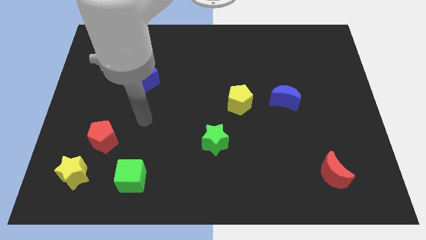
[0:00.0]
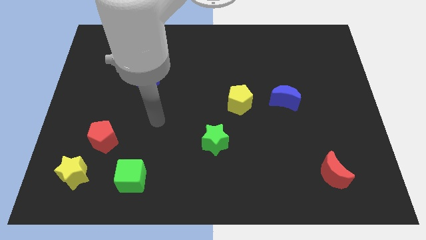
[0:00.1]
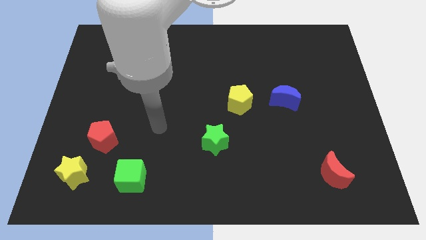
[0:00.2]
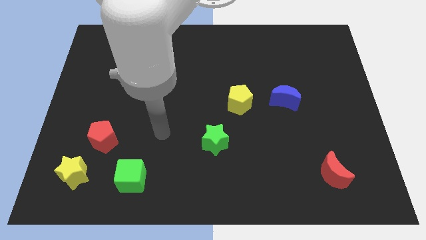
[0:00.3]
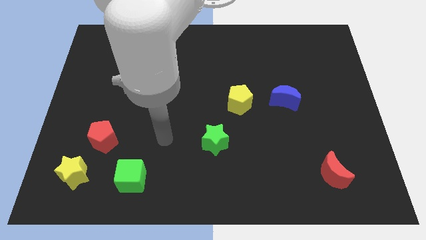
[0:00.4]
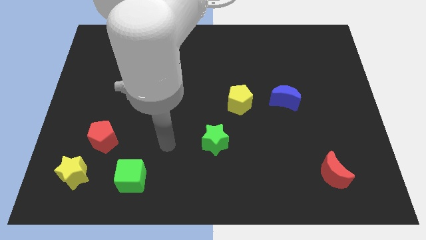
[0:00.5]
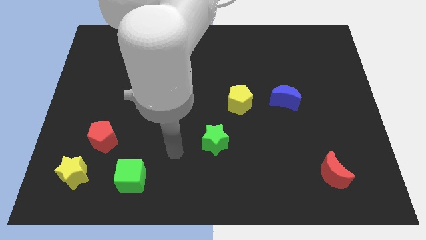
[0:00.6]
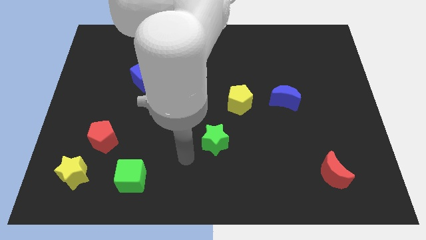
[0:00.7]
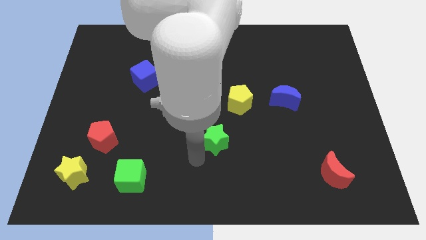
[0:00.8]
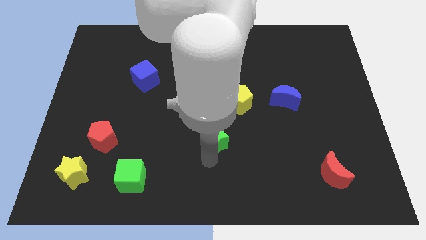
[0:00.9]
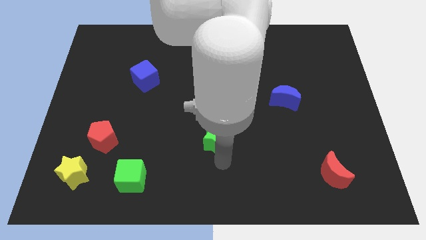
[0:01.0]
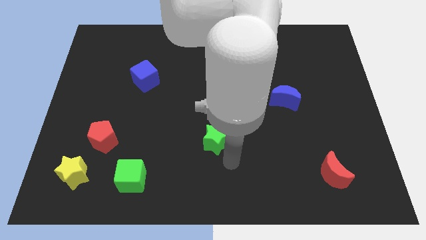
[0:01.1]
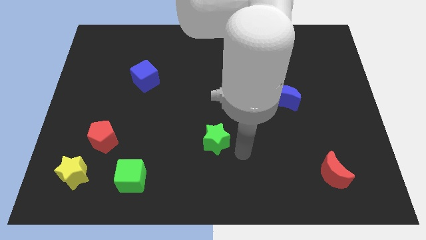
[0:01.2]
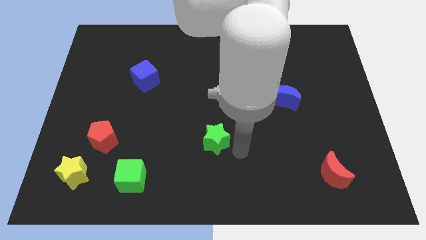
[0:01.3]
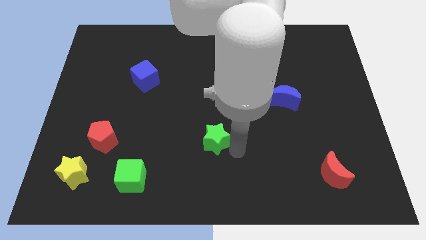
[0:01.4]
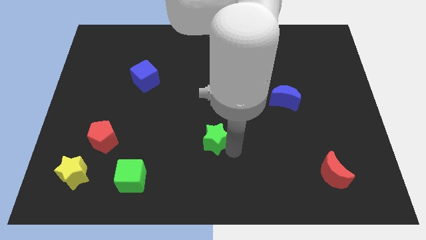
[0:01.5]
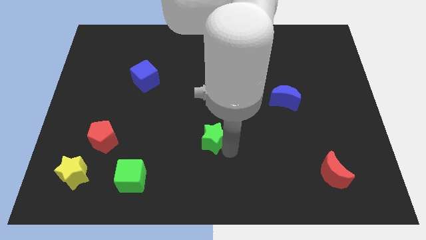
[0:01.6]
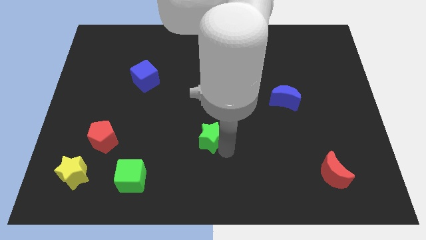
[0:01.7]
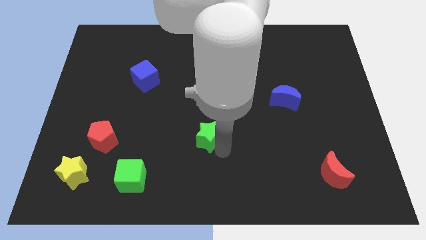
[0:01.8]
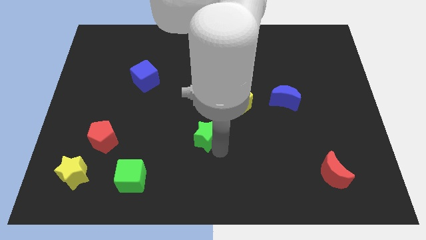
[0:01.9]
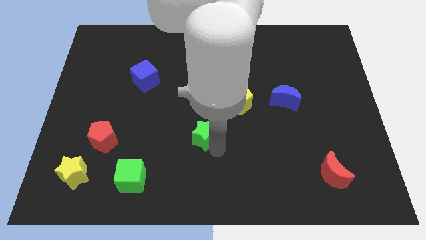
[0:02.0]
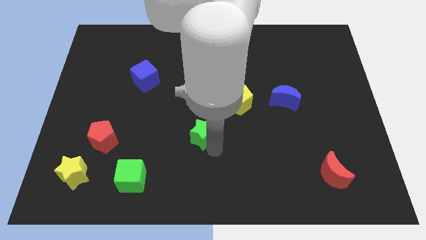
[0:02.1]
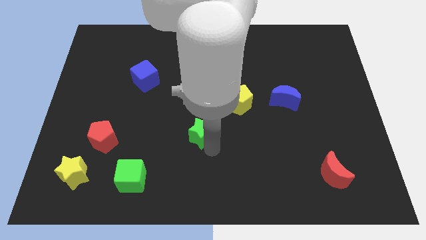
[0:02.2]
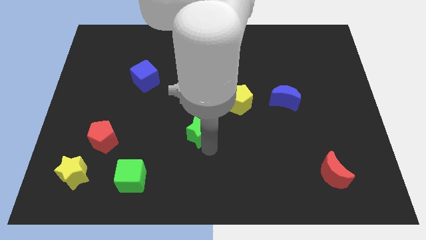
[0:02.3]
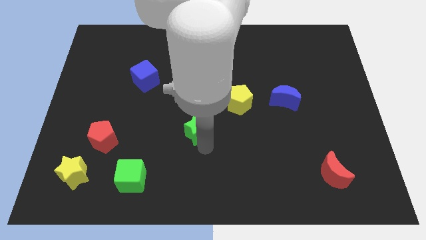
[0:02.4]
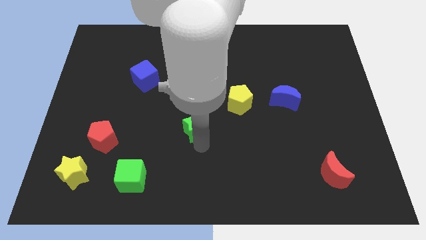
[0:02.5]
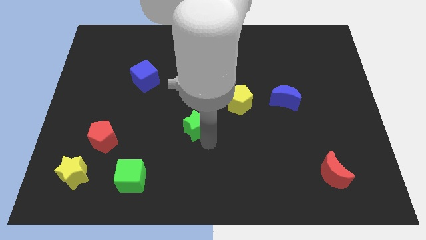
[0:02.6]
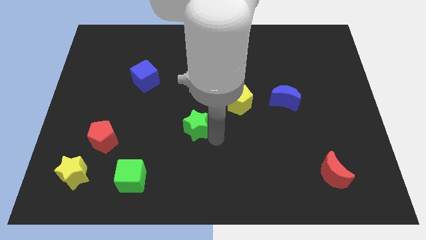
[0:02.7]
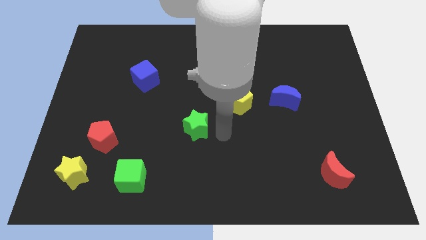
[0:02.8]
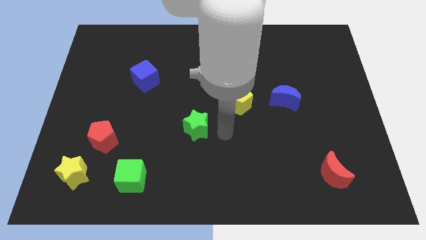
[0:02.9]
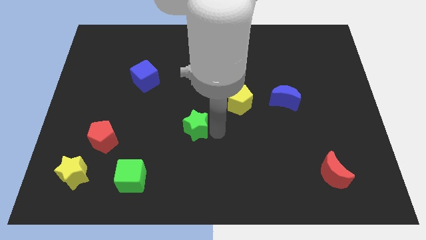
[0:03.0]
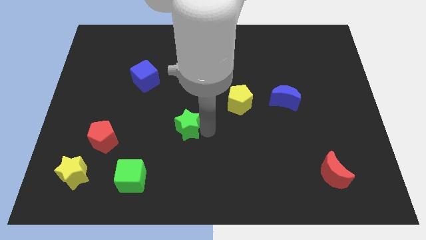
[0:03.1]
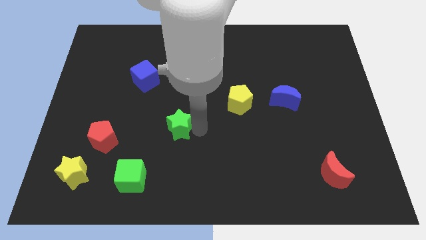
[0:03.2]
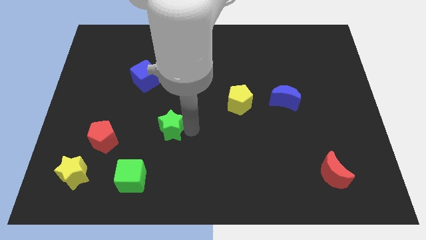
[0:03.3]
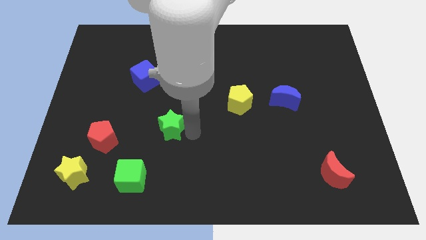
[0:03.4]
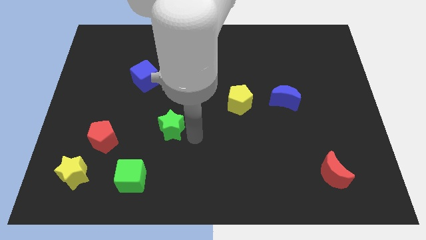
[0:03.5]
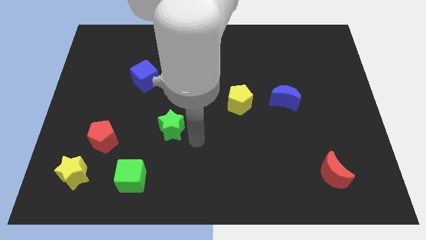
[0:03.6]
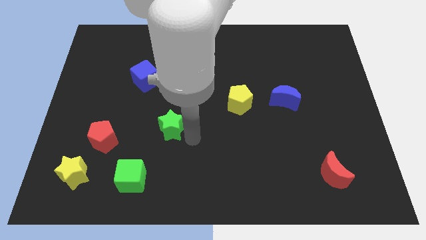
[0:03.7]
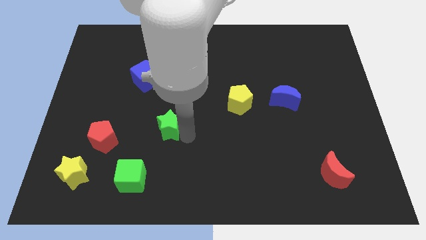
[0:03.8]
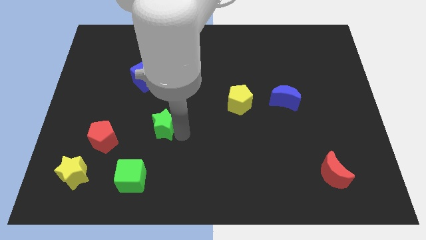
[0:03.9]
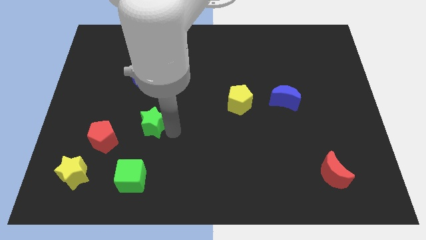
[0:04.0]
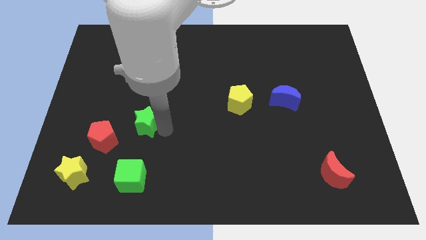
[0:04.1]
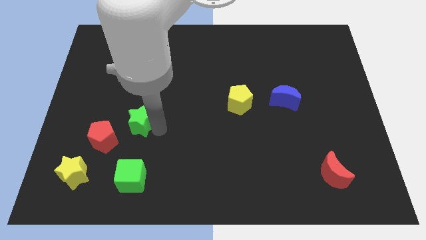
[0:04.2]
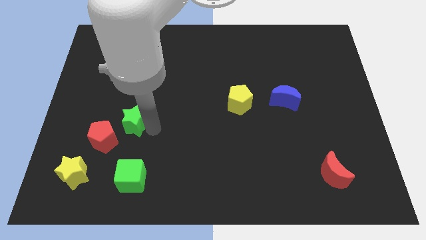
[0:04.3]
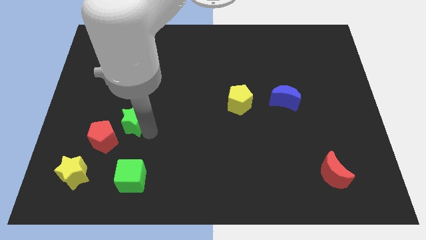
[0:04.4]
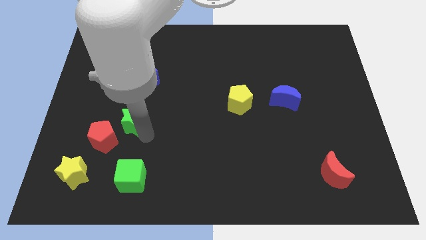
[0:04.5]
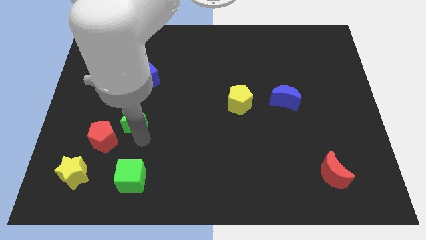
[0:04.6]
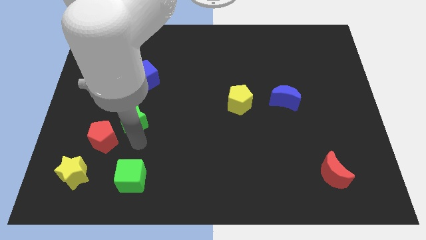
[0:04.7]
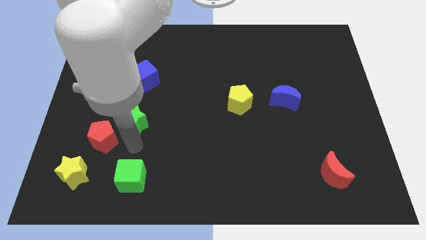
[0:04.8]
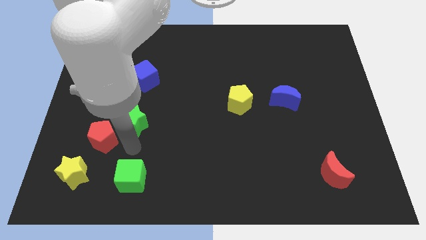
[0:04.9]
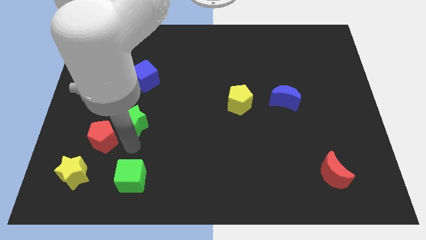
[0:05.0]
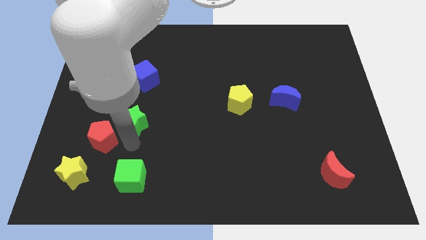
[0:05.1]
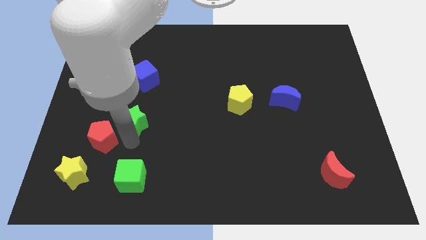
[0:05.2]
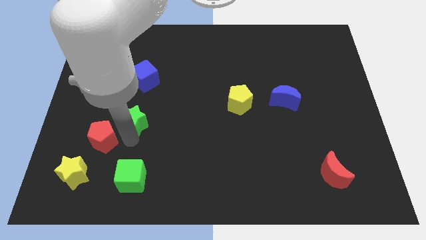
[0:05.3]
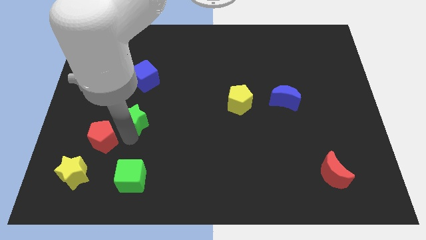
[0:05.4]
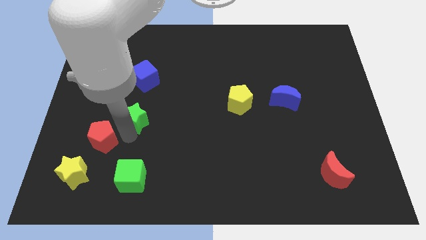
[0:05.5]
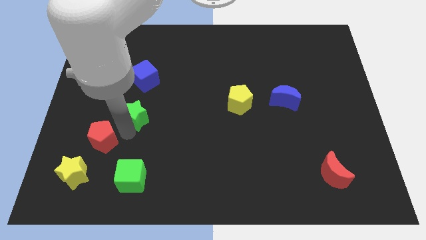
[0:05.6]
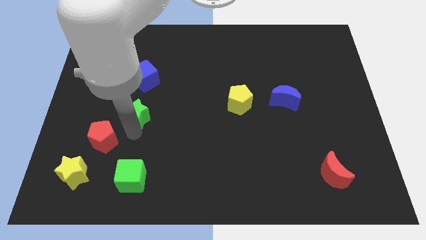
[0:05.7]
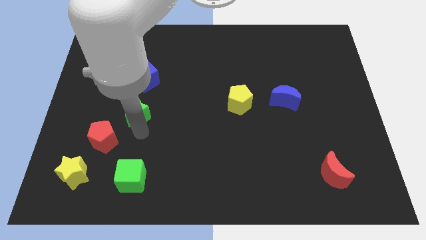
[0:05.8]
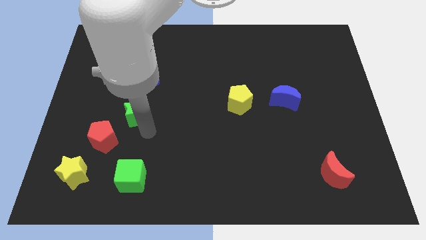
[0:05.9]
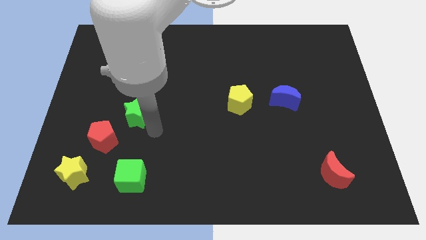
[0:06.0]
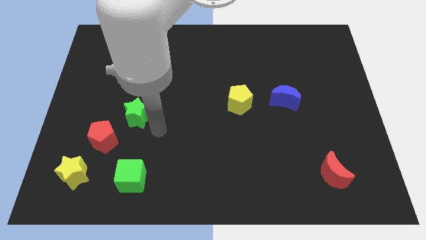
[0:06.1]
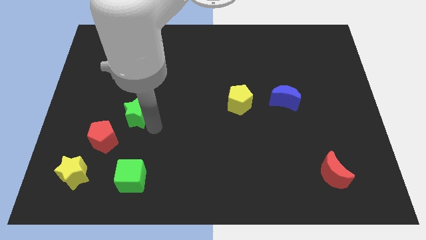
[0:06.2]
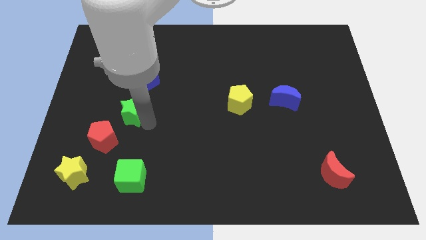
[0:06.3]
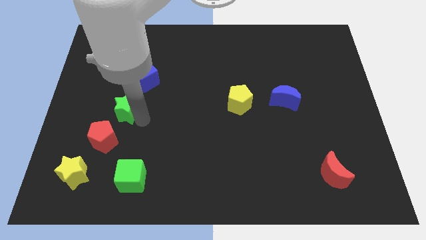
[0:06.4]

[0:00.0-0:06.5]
put the green star above the red pentagon

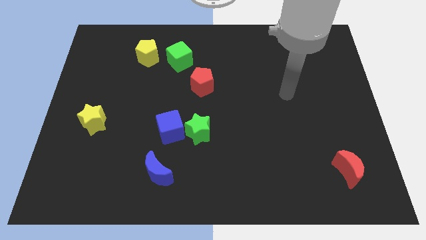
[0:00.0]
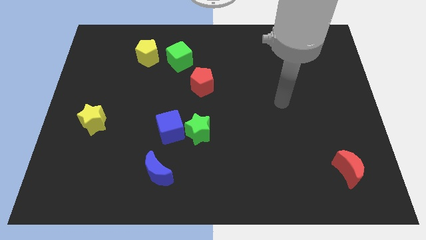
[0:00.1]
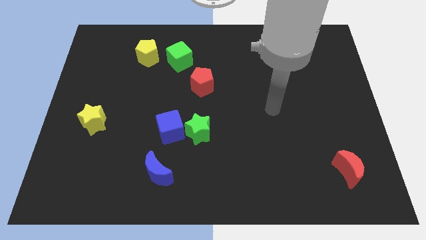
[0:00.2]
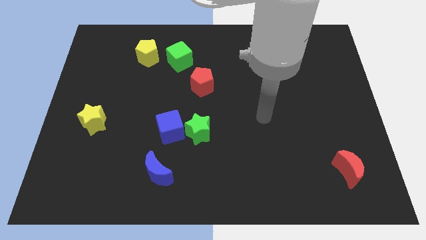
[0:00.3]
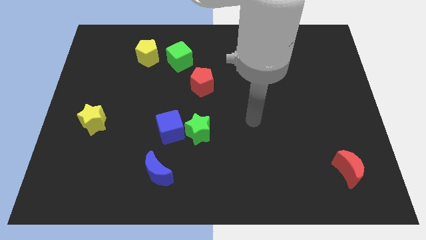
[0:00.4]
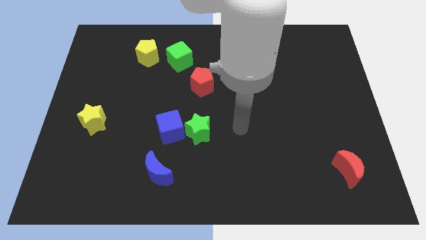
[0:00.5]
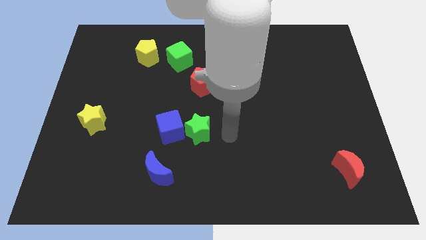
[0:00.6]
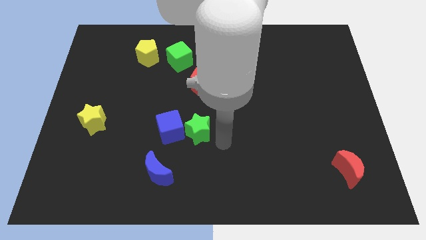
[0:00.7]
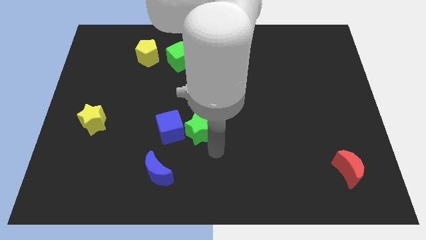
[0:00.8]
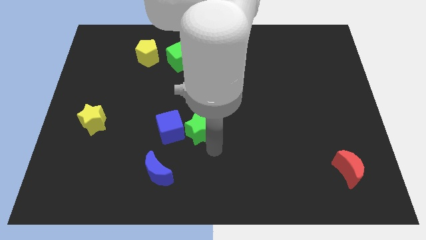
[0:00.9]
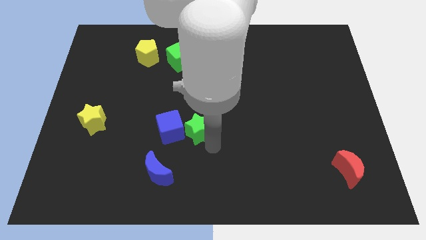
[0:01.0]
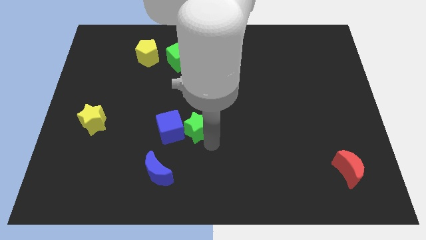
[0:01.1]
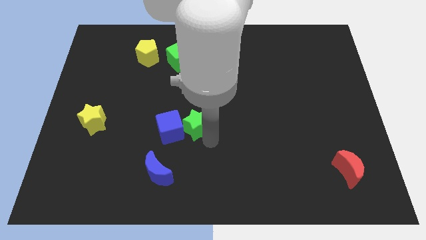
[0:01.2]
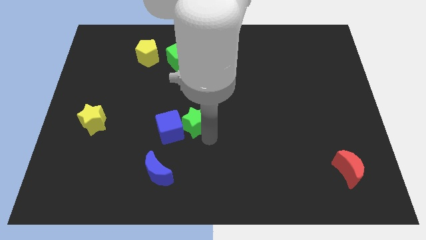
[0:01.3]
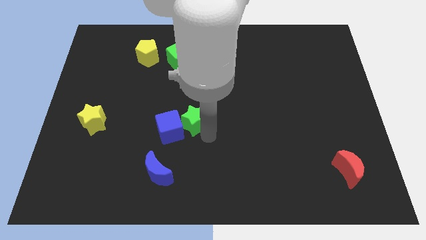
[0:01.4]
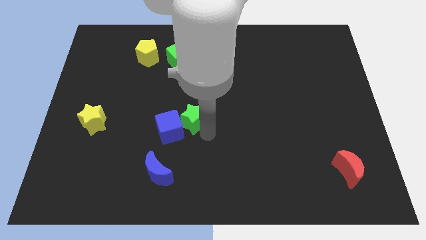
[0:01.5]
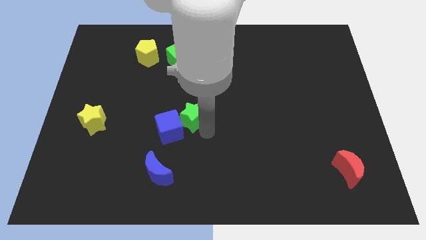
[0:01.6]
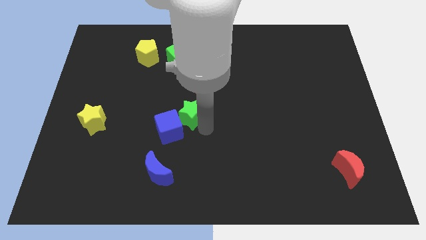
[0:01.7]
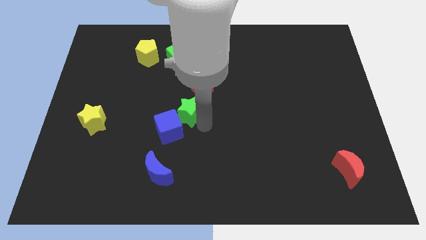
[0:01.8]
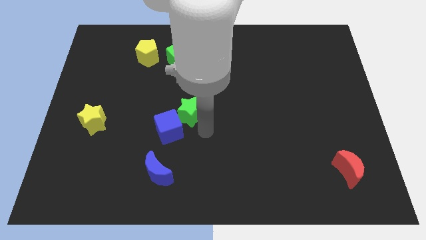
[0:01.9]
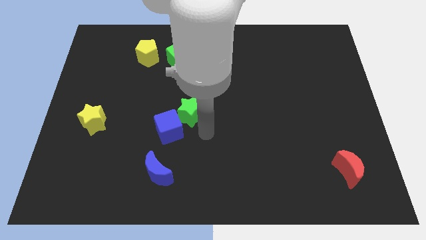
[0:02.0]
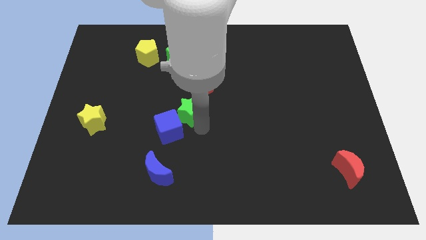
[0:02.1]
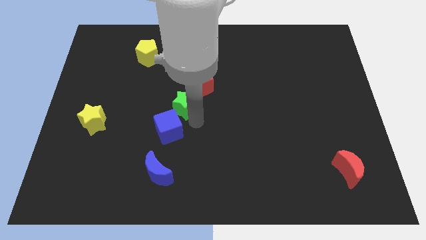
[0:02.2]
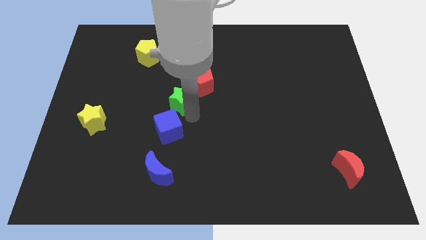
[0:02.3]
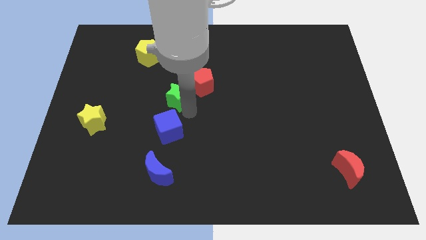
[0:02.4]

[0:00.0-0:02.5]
put the green star to the left of the red pentagon
